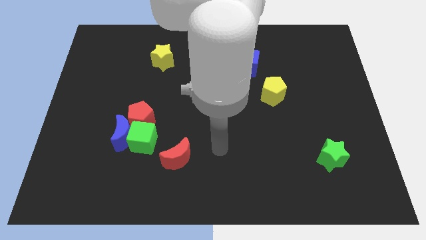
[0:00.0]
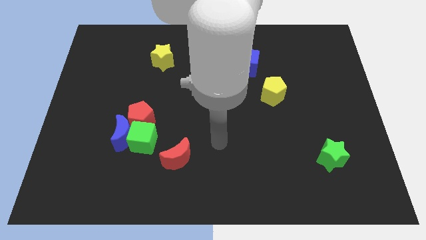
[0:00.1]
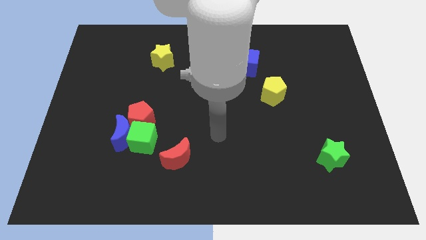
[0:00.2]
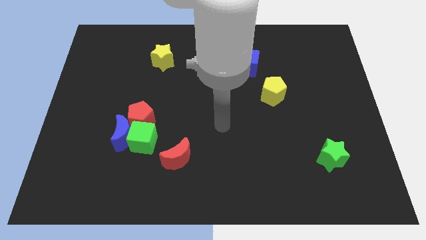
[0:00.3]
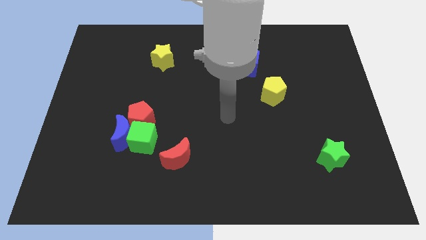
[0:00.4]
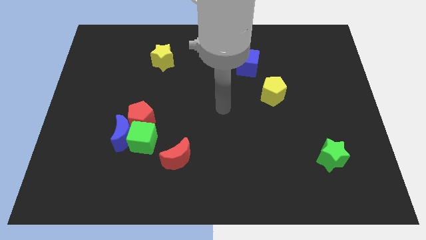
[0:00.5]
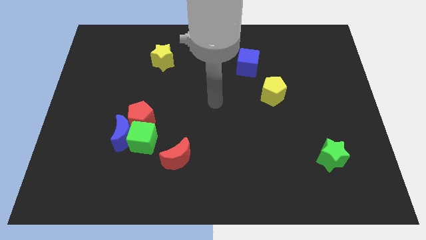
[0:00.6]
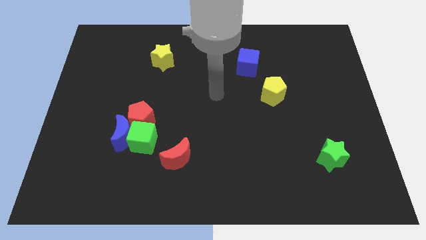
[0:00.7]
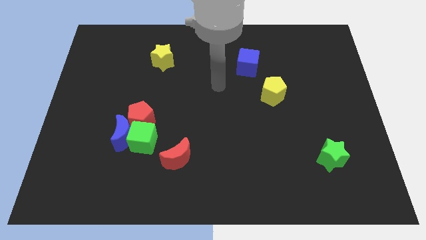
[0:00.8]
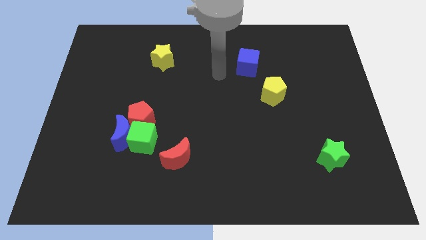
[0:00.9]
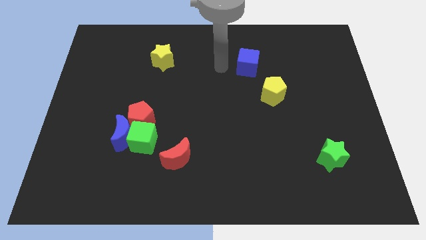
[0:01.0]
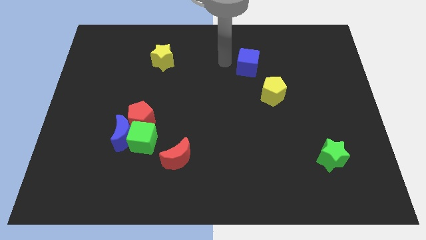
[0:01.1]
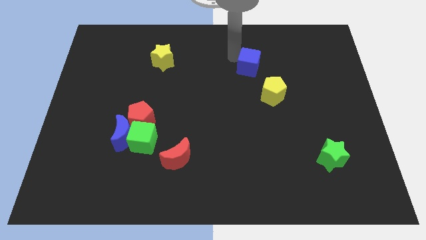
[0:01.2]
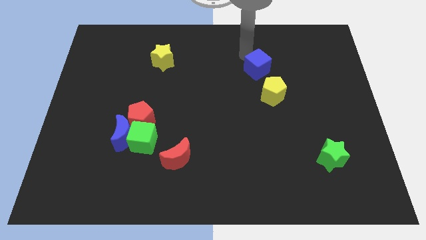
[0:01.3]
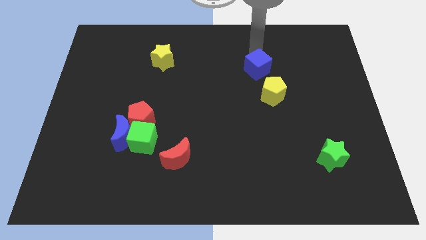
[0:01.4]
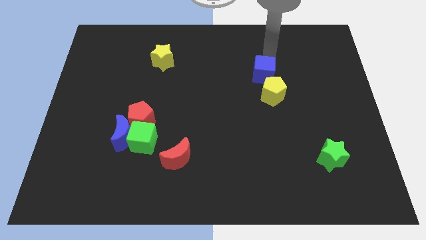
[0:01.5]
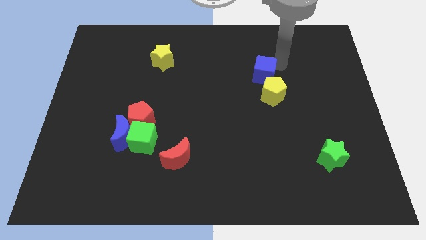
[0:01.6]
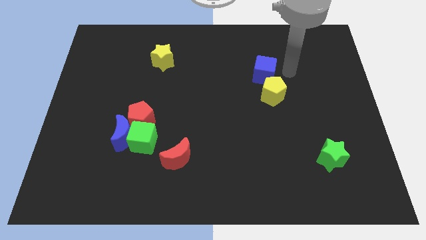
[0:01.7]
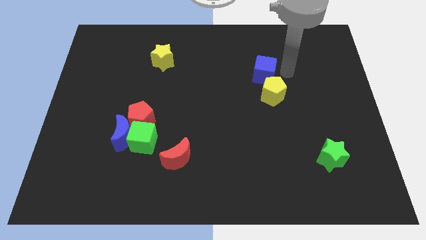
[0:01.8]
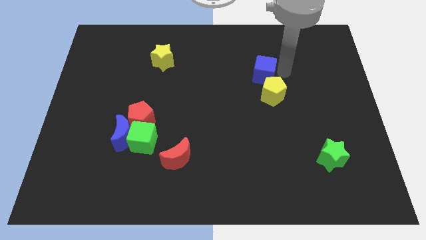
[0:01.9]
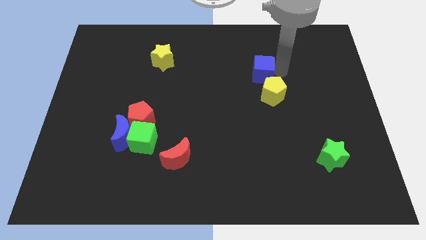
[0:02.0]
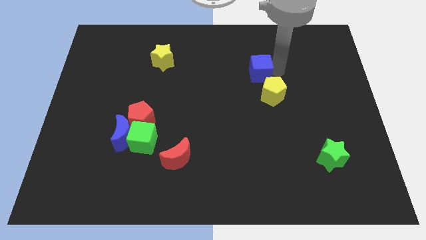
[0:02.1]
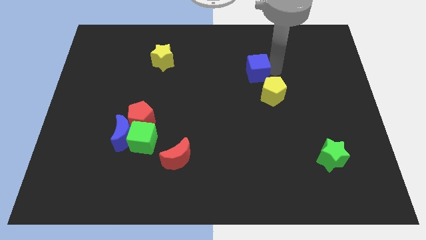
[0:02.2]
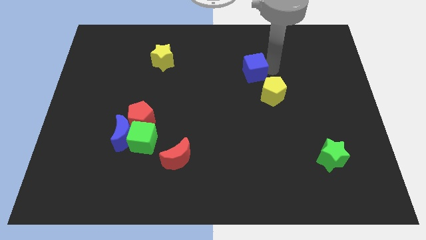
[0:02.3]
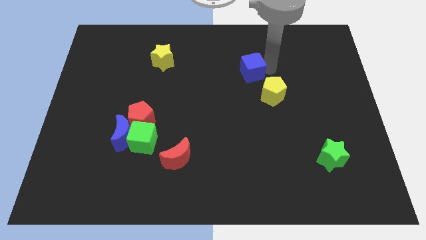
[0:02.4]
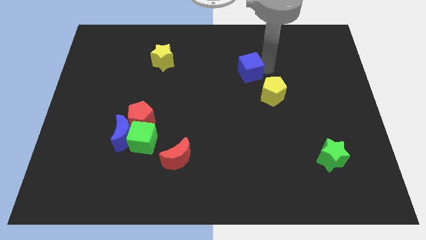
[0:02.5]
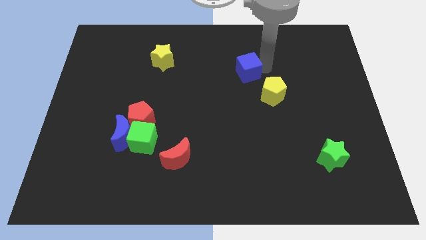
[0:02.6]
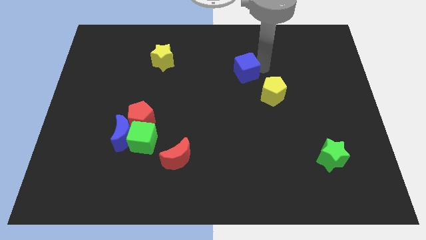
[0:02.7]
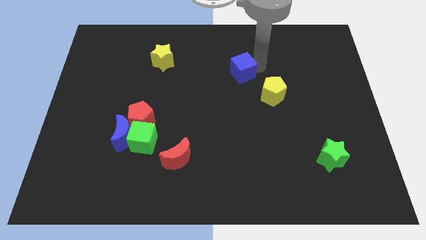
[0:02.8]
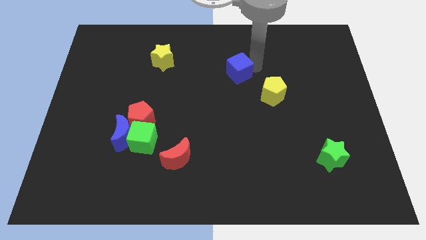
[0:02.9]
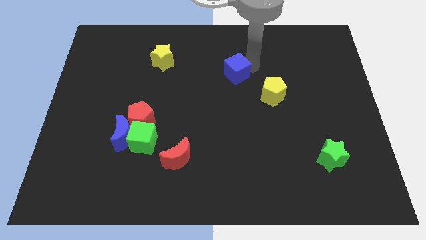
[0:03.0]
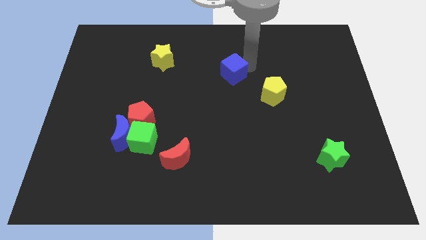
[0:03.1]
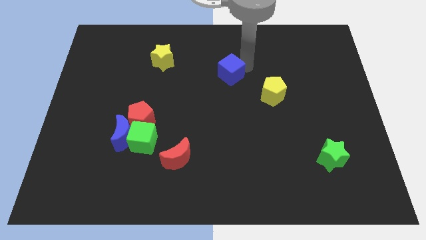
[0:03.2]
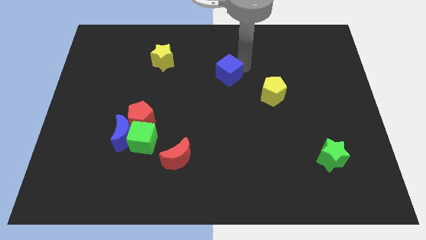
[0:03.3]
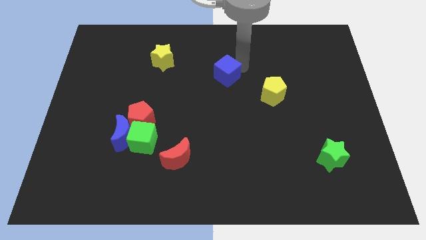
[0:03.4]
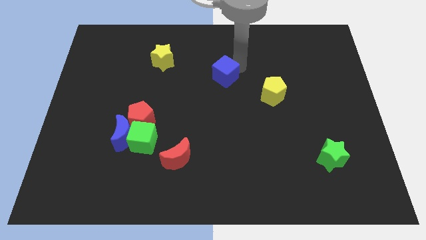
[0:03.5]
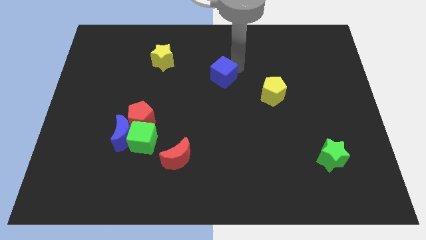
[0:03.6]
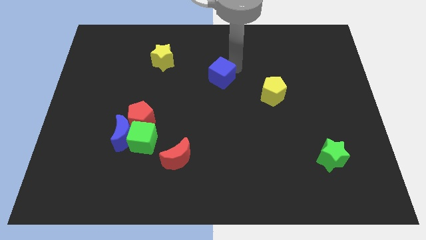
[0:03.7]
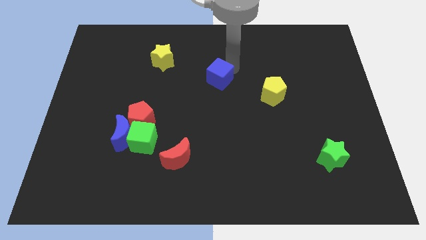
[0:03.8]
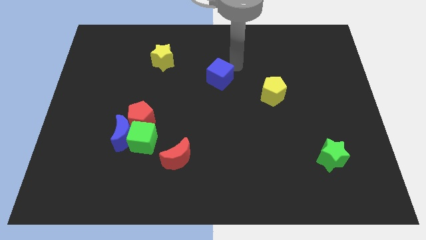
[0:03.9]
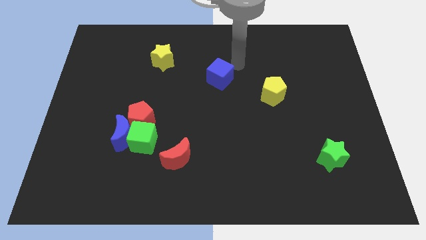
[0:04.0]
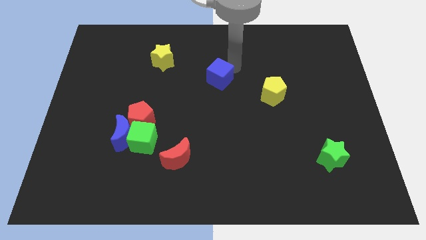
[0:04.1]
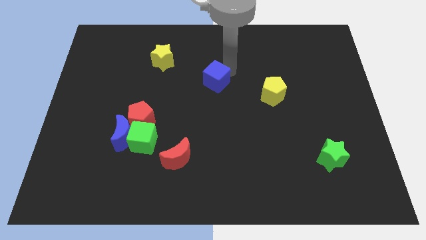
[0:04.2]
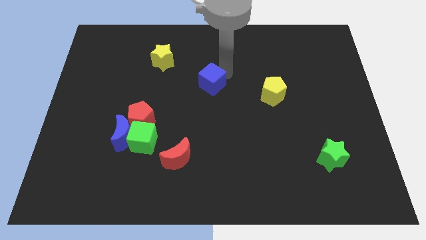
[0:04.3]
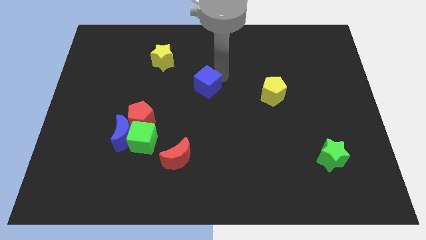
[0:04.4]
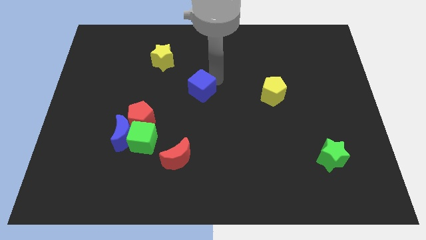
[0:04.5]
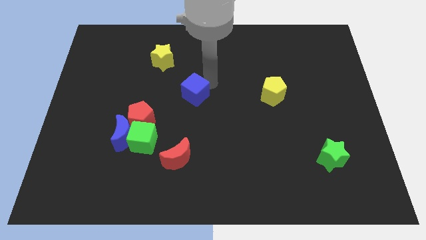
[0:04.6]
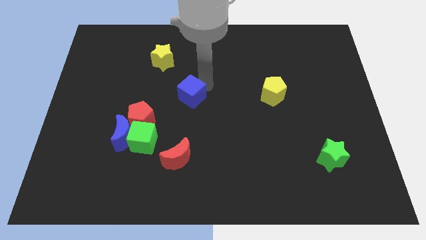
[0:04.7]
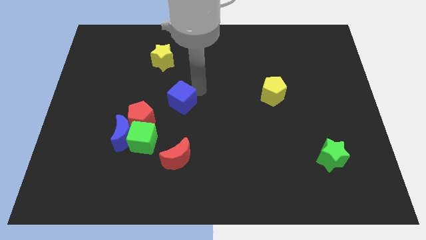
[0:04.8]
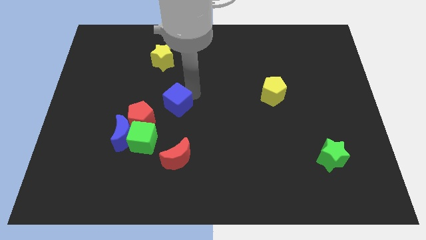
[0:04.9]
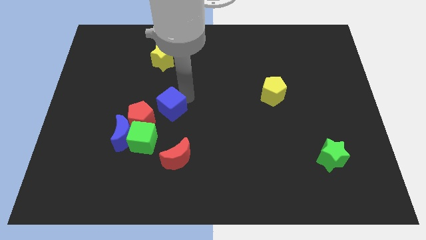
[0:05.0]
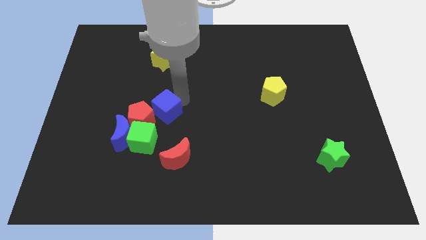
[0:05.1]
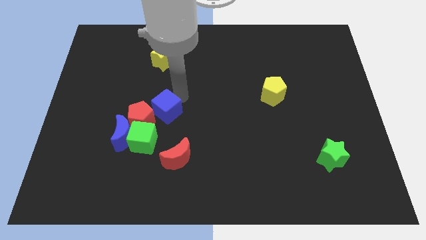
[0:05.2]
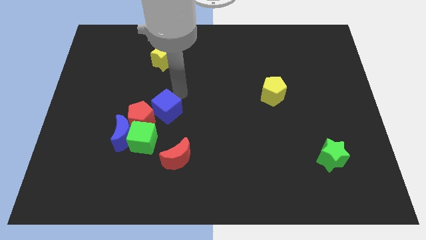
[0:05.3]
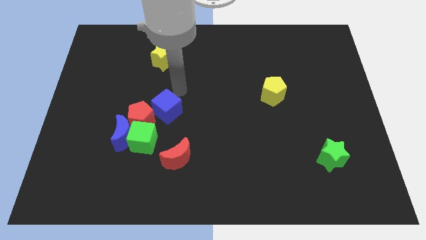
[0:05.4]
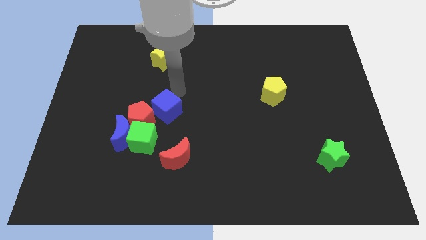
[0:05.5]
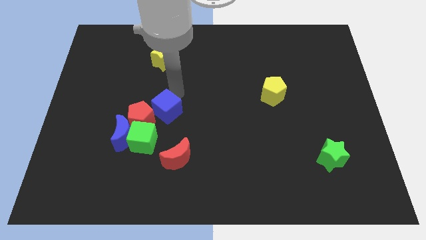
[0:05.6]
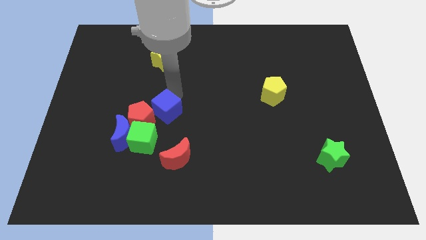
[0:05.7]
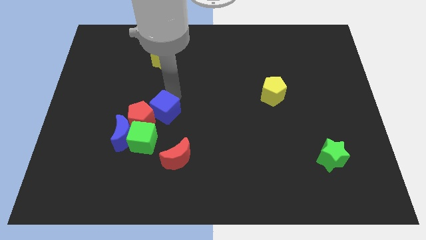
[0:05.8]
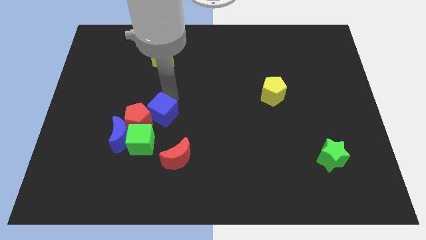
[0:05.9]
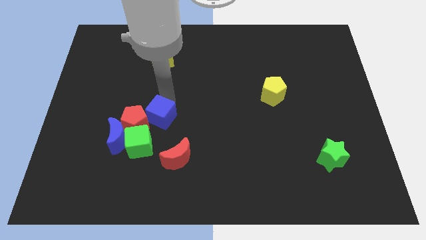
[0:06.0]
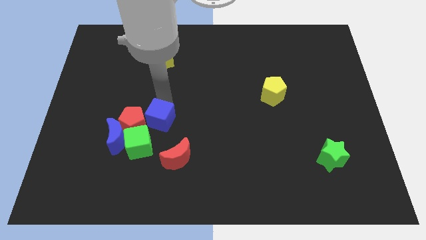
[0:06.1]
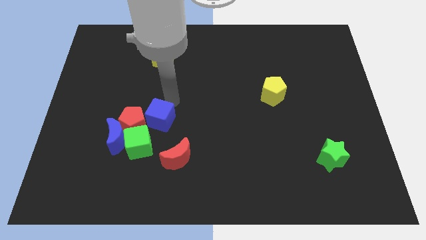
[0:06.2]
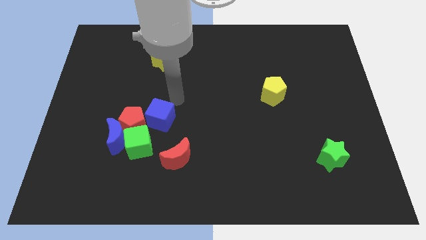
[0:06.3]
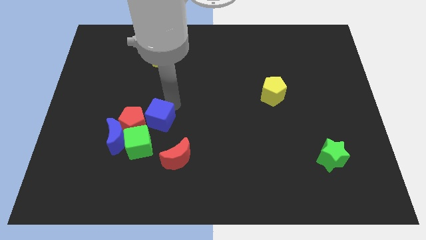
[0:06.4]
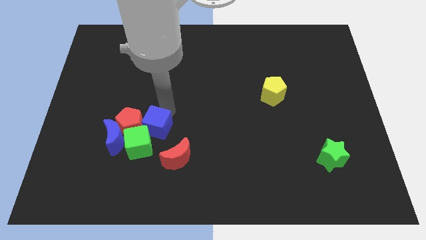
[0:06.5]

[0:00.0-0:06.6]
move the blue cube to the green cube

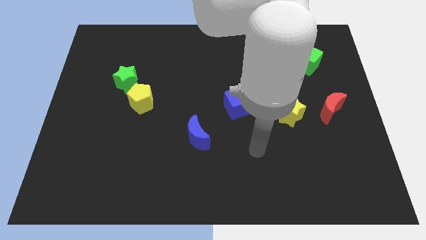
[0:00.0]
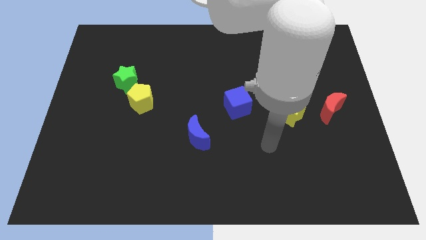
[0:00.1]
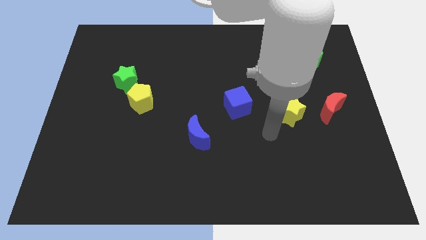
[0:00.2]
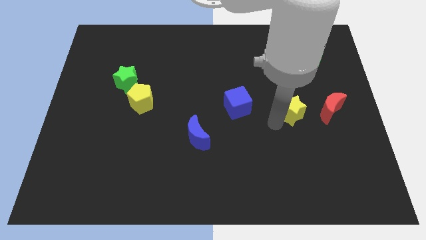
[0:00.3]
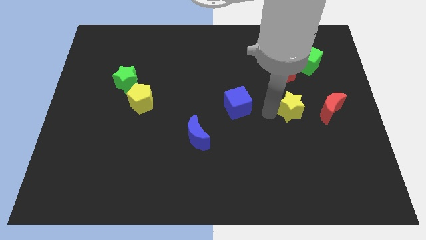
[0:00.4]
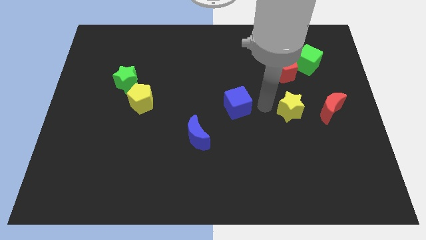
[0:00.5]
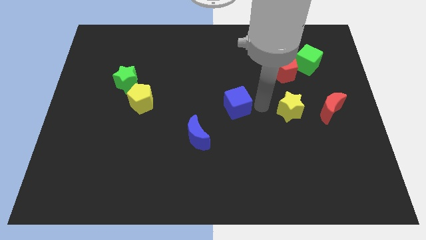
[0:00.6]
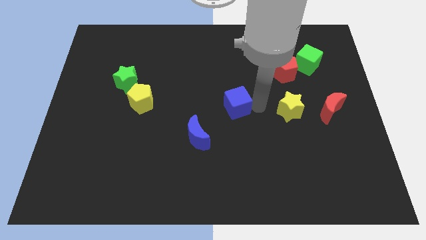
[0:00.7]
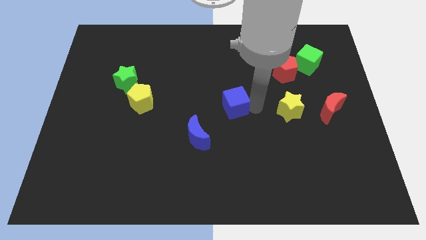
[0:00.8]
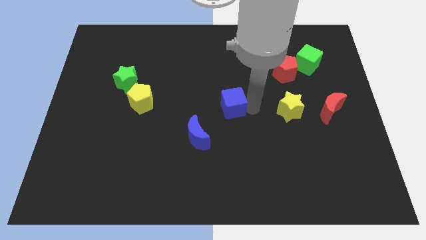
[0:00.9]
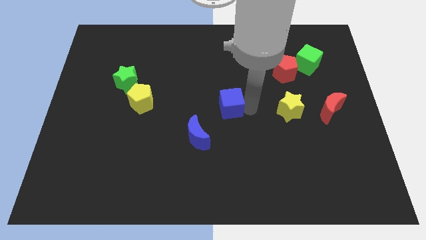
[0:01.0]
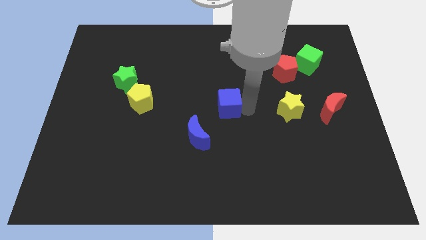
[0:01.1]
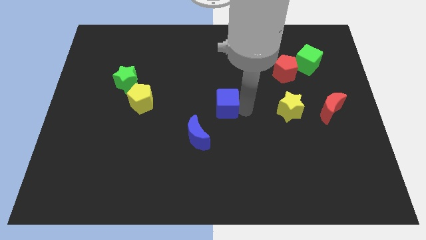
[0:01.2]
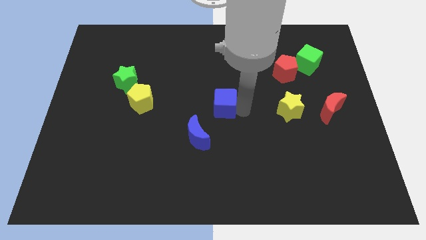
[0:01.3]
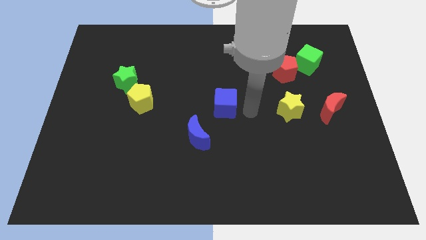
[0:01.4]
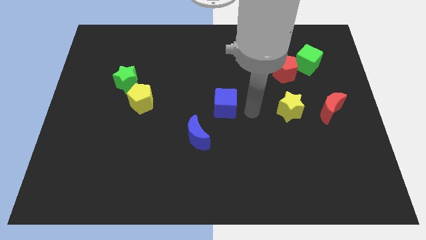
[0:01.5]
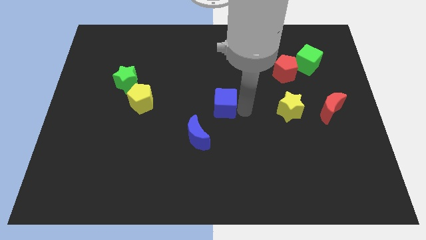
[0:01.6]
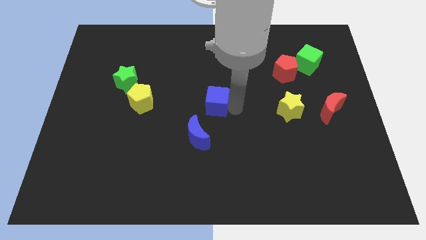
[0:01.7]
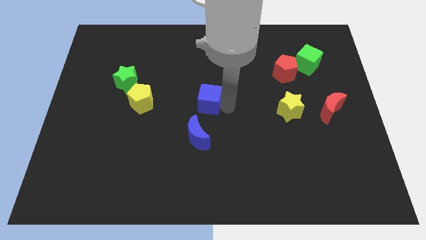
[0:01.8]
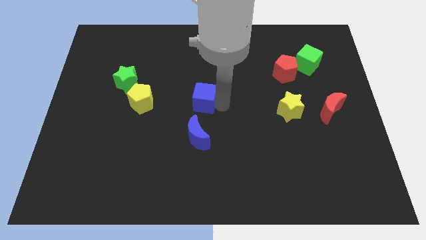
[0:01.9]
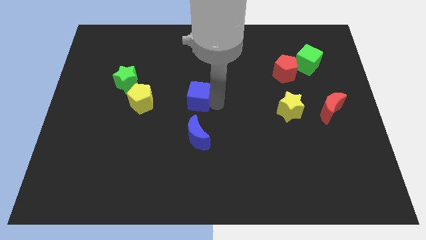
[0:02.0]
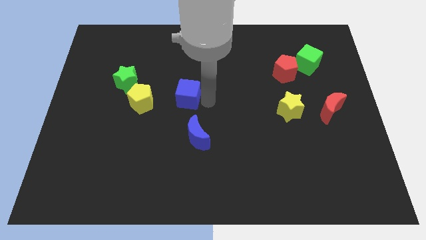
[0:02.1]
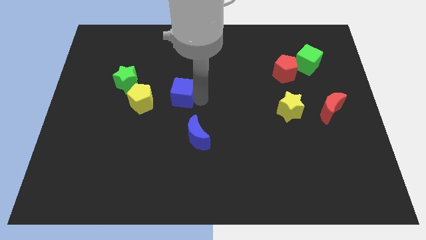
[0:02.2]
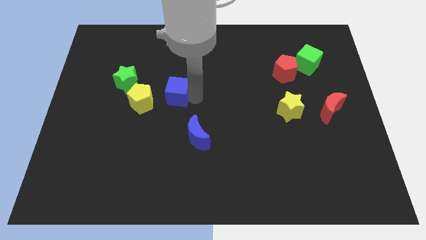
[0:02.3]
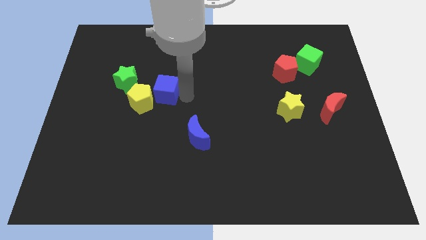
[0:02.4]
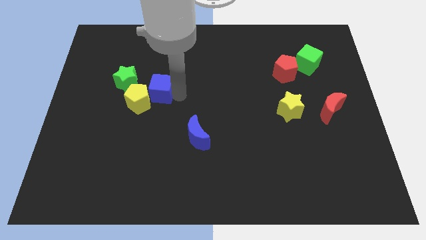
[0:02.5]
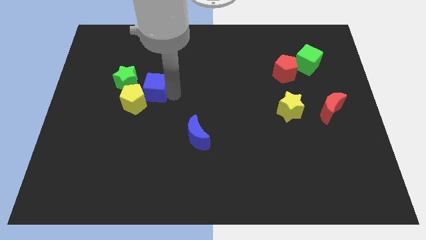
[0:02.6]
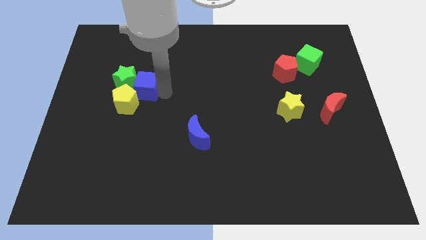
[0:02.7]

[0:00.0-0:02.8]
move the blue cube to the green star
